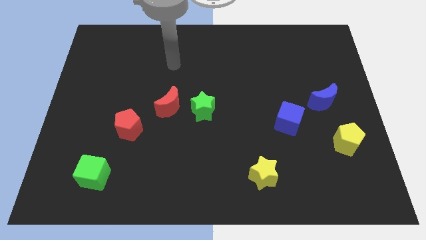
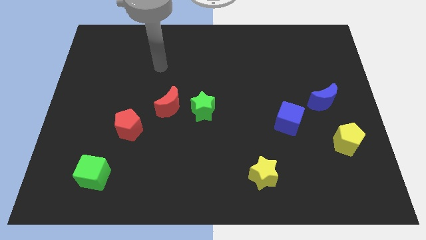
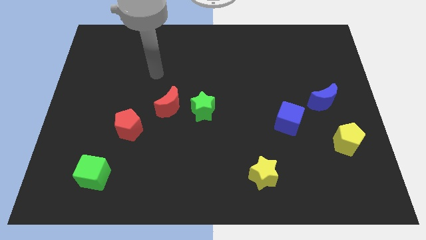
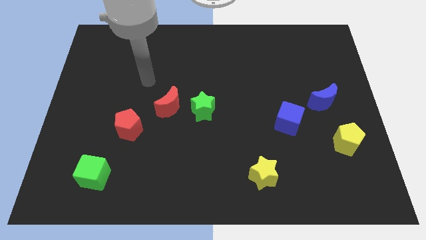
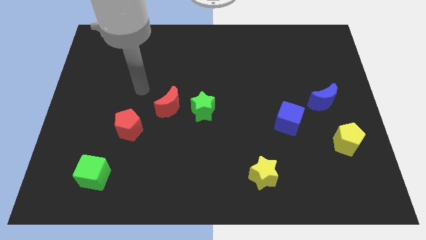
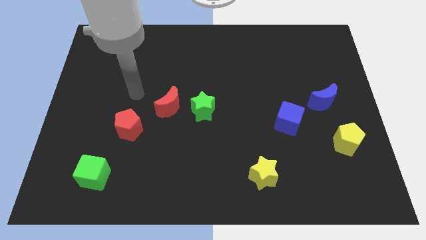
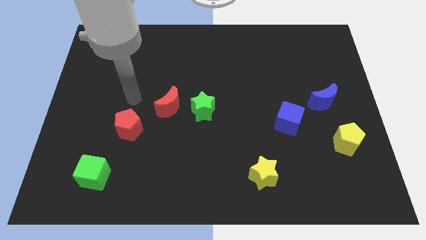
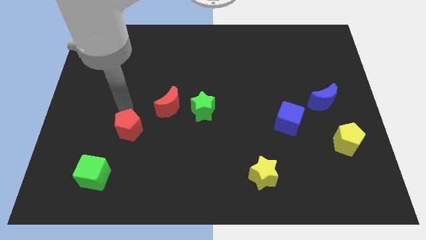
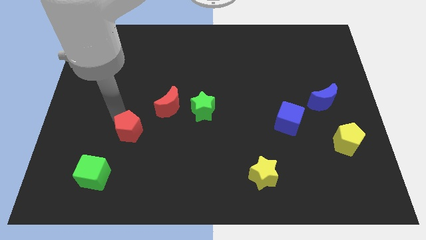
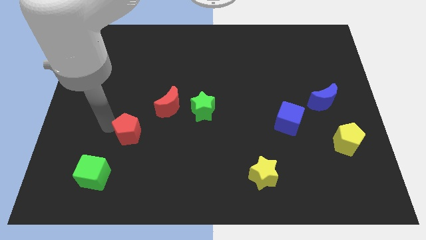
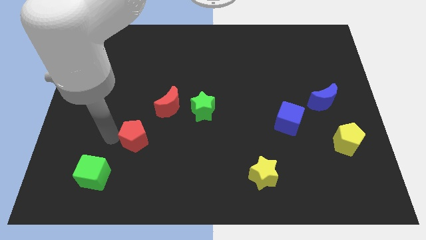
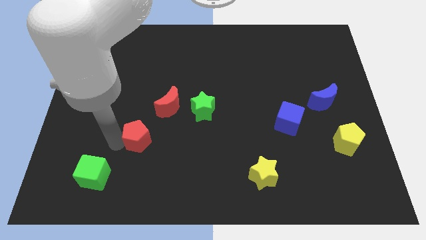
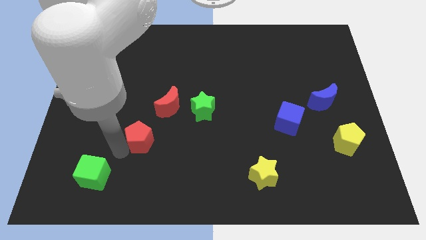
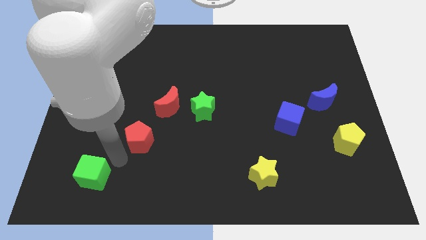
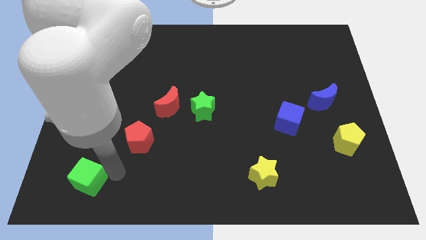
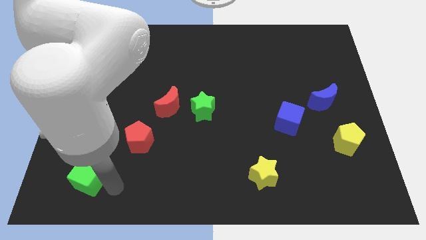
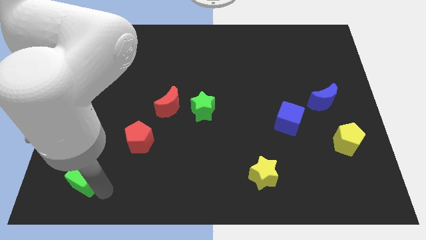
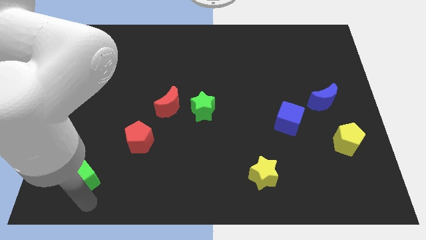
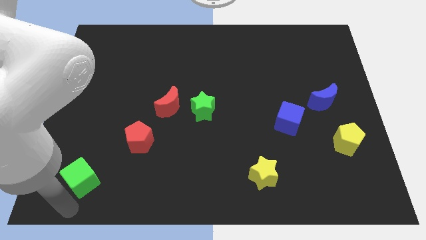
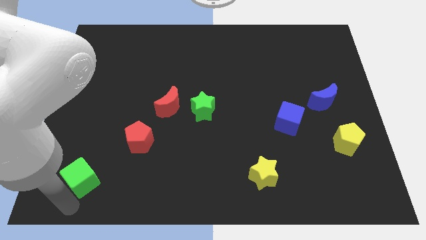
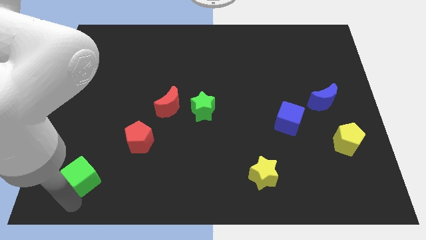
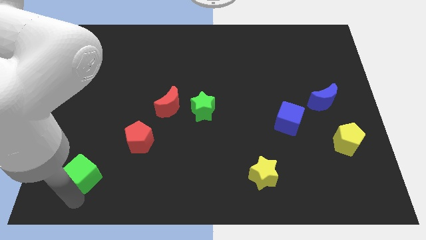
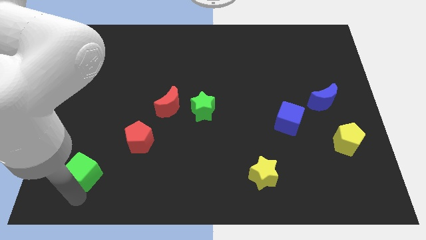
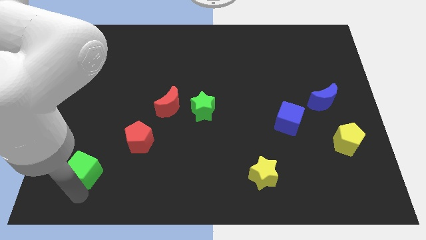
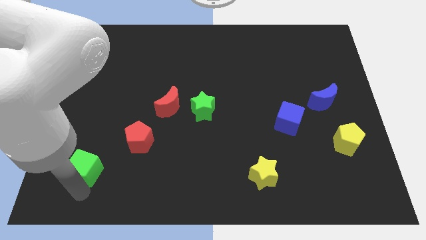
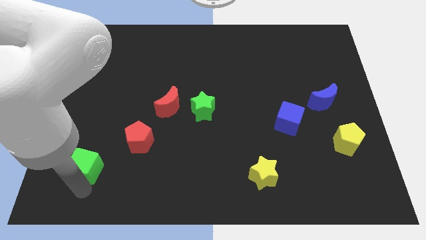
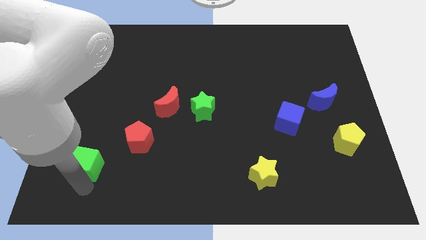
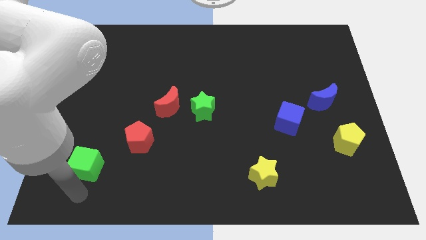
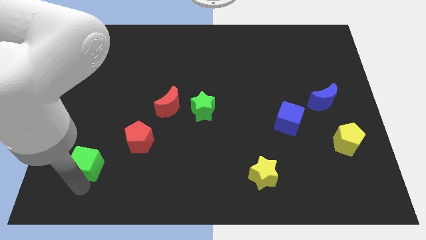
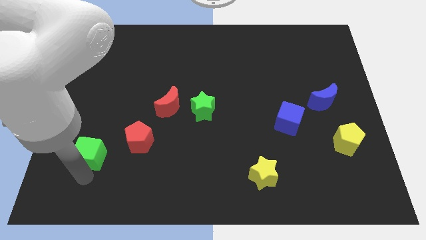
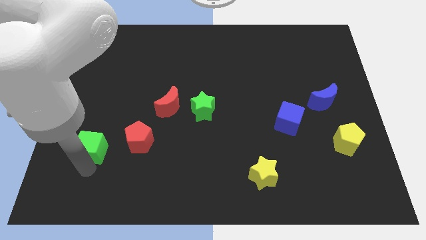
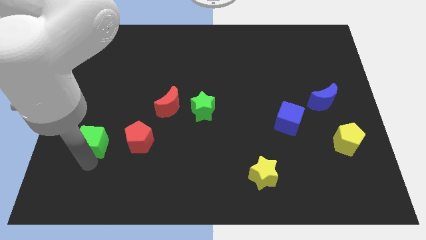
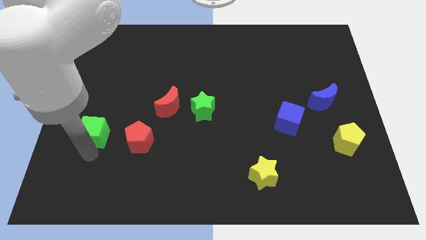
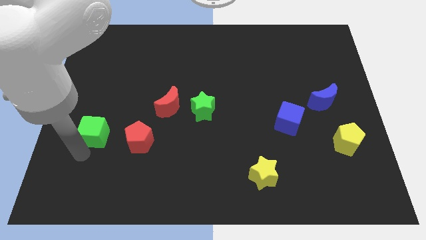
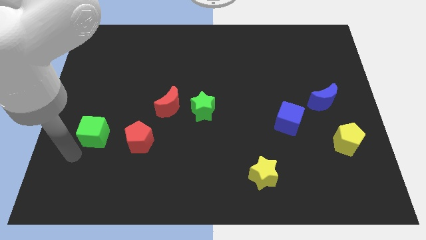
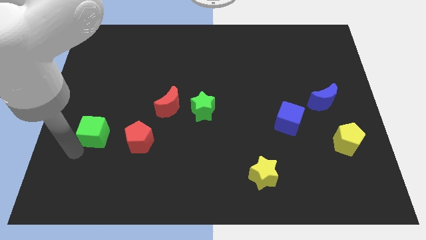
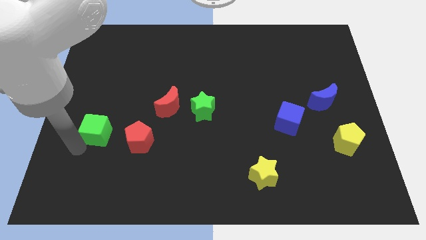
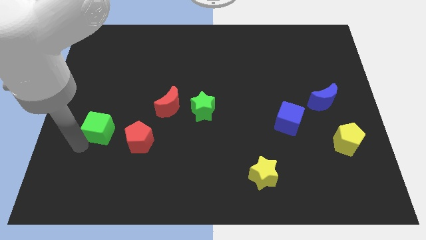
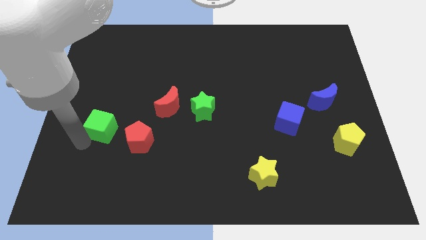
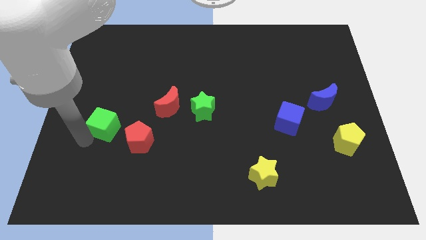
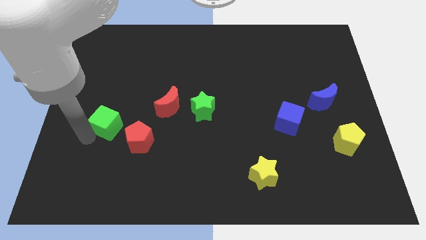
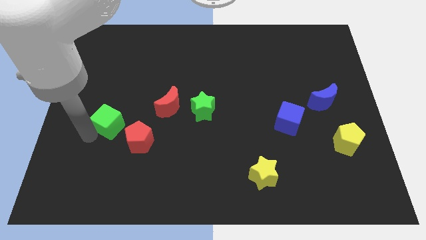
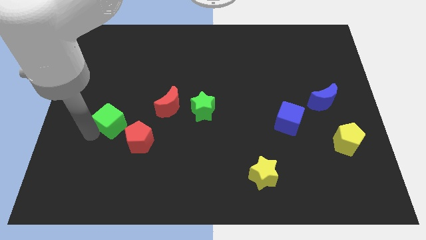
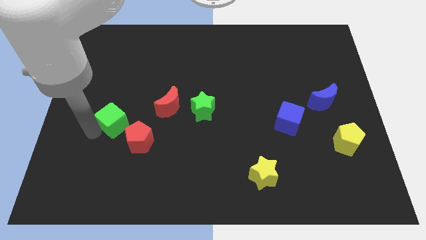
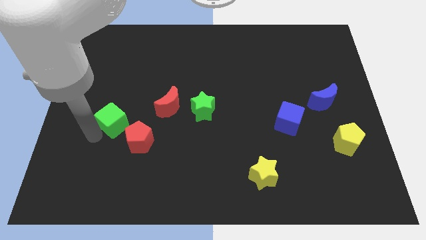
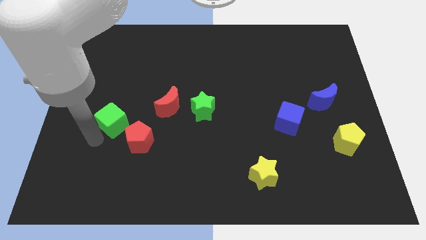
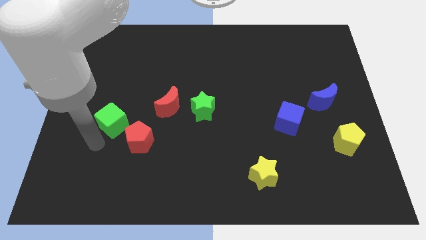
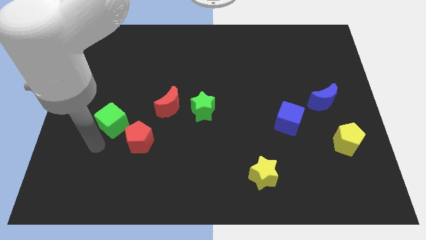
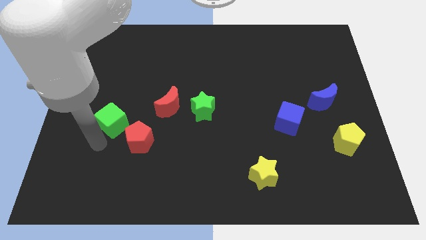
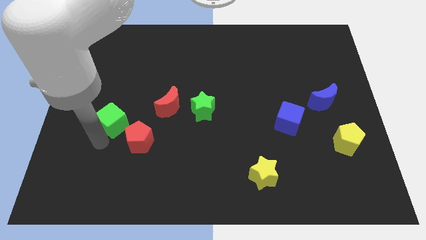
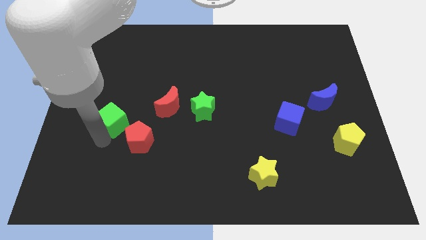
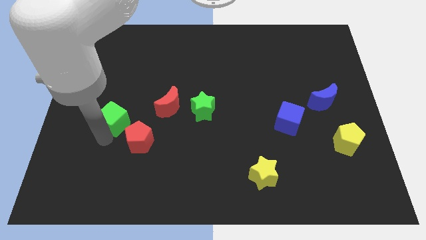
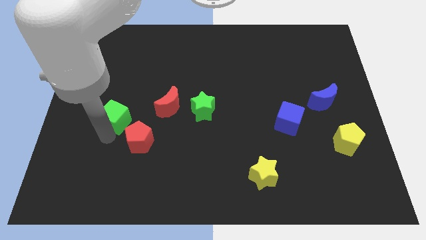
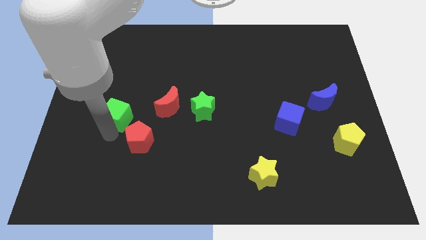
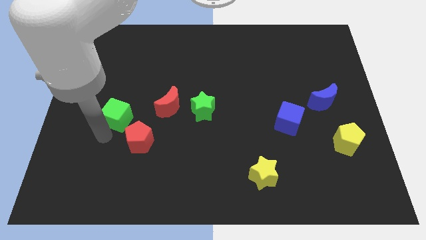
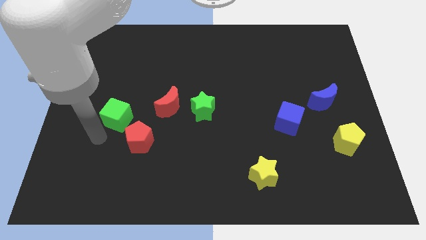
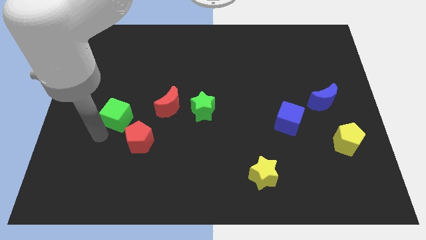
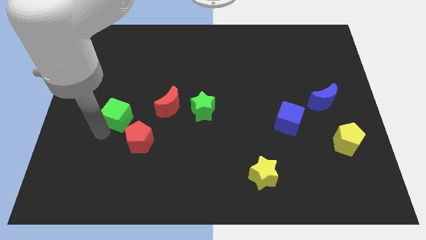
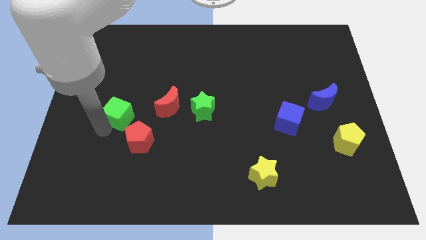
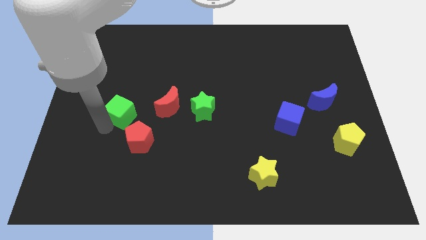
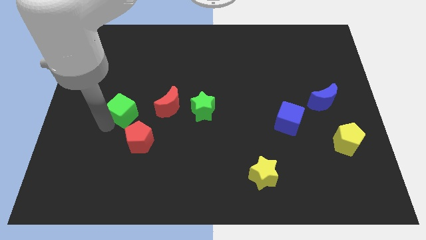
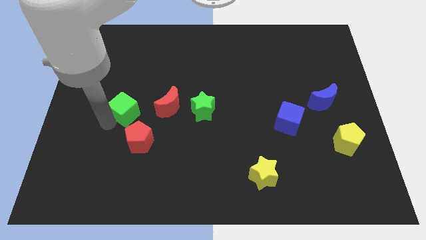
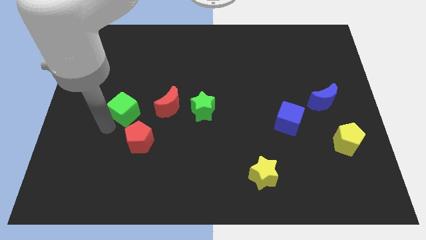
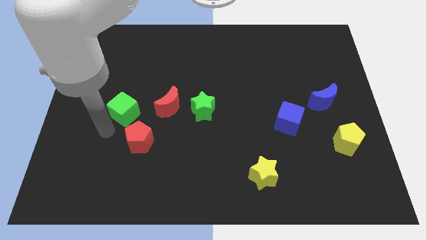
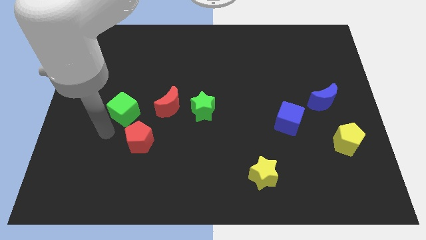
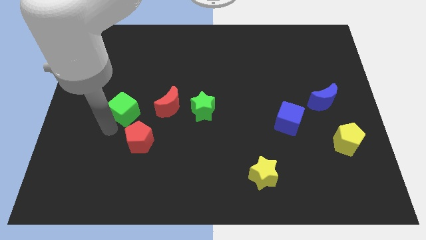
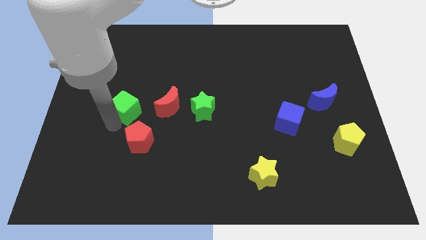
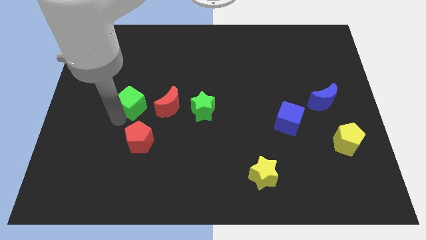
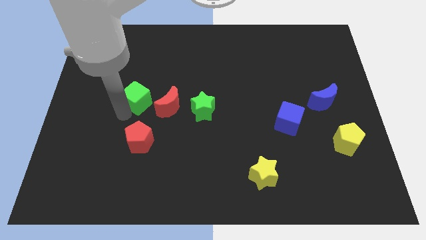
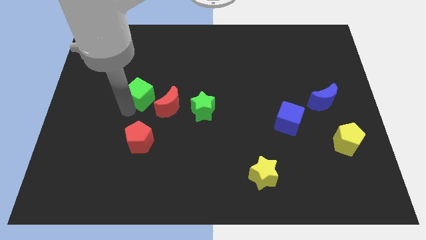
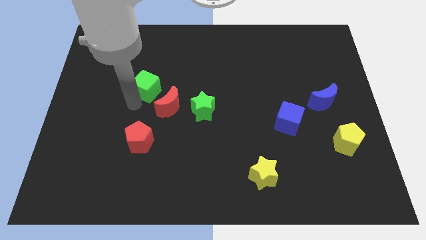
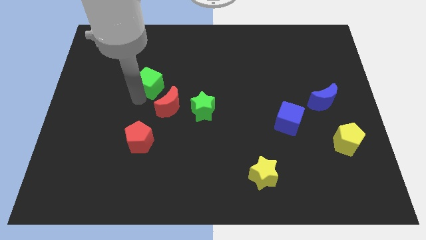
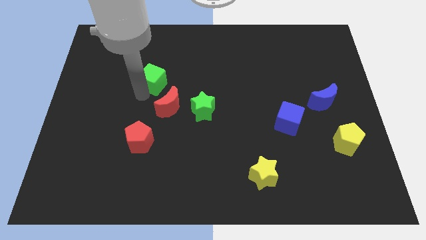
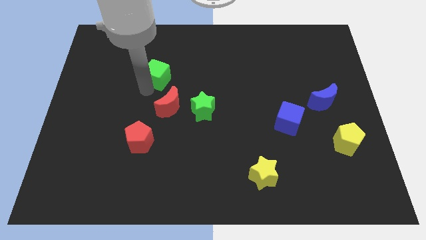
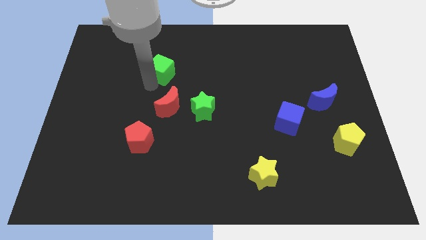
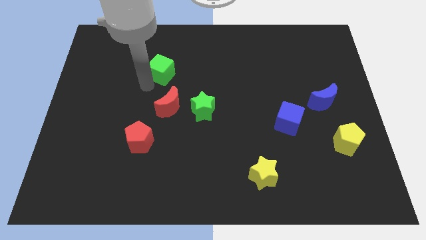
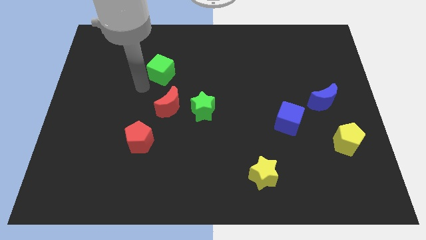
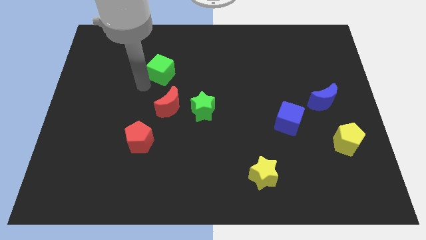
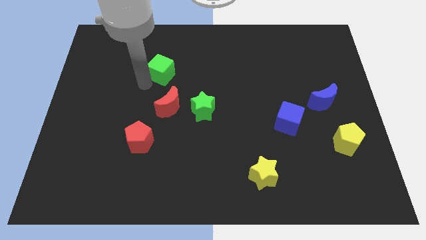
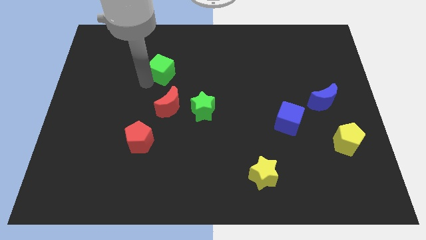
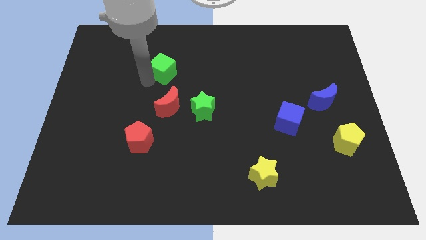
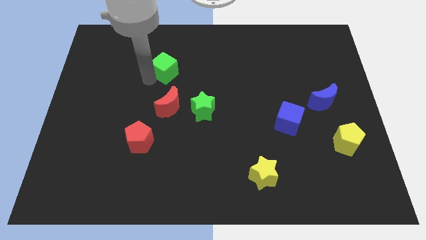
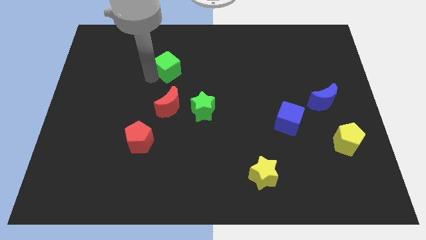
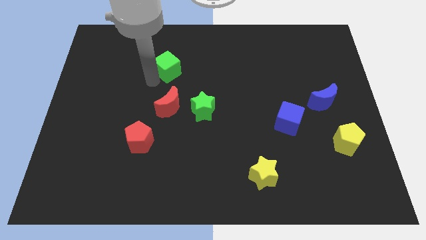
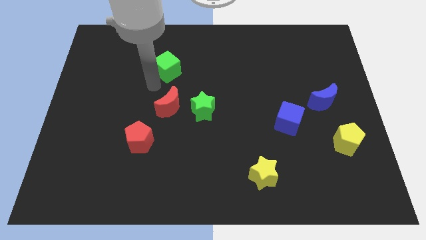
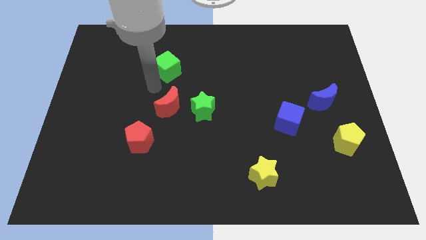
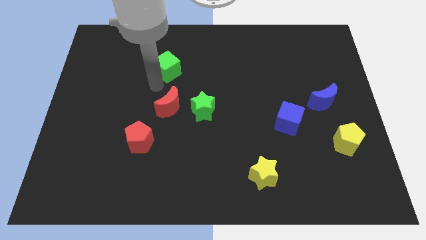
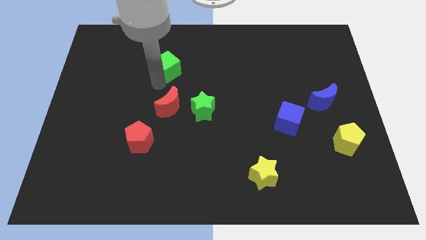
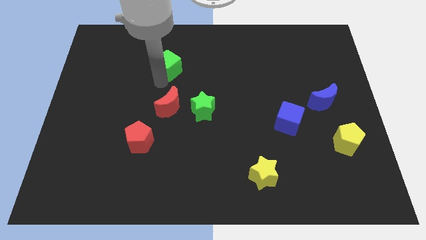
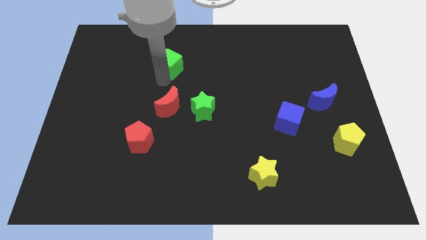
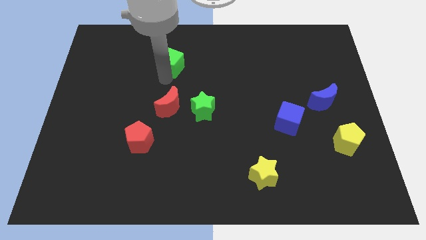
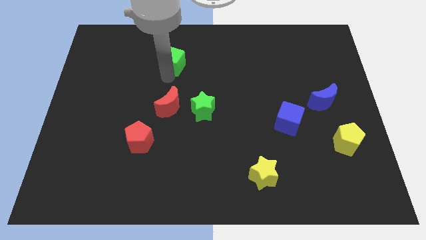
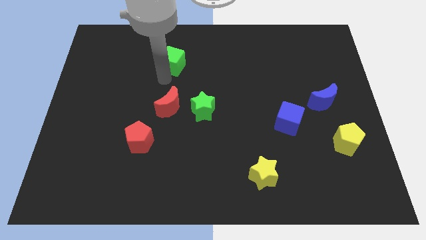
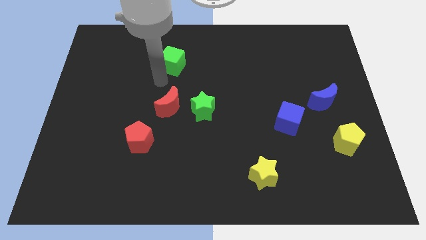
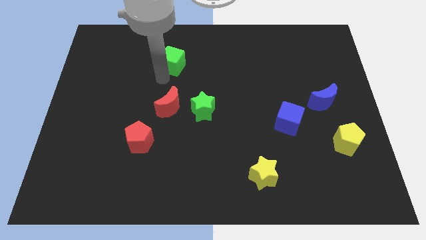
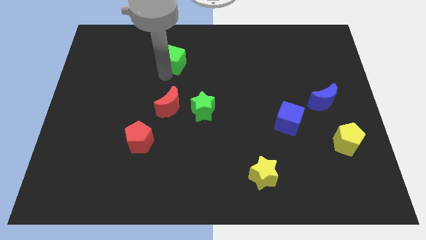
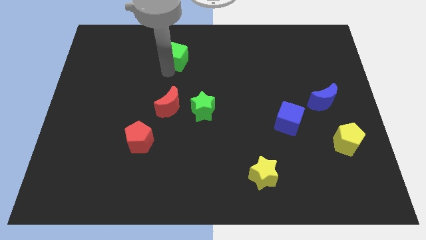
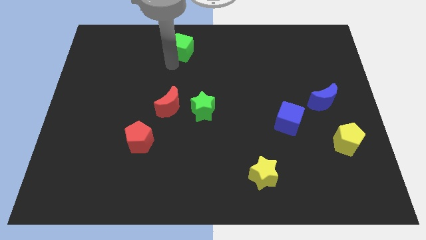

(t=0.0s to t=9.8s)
move the green cube to the towards your base
